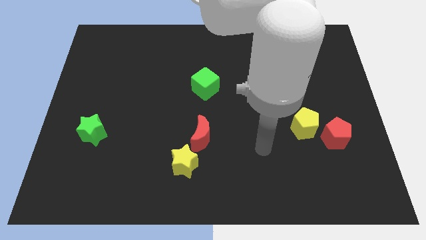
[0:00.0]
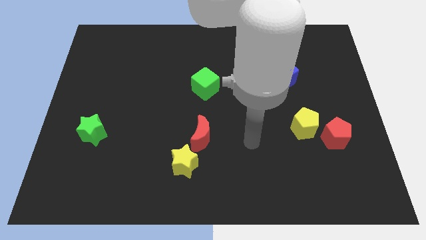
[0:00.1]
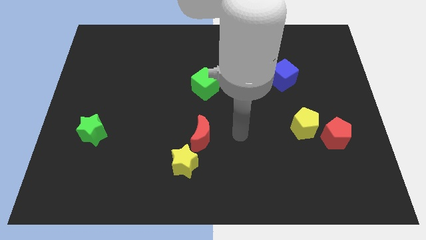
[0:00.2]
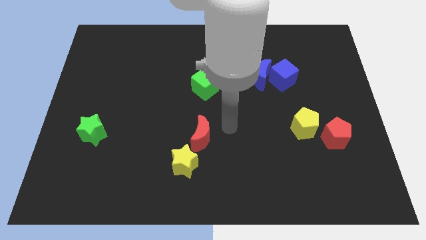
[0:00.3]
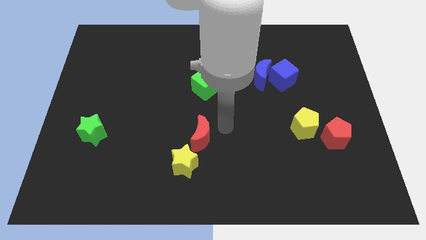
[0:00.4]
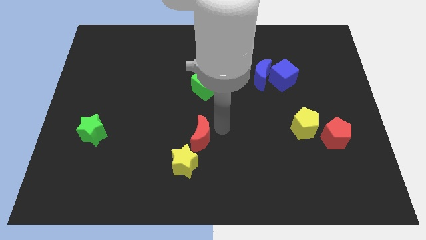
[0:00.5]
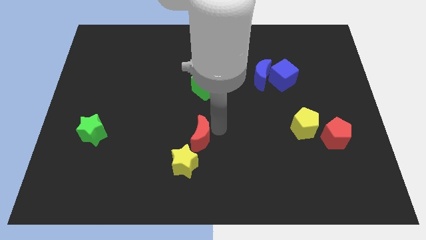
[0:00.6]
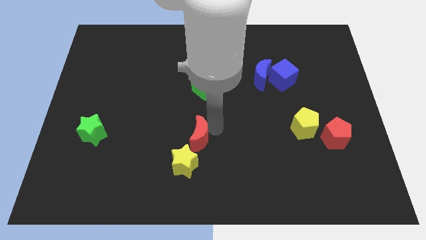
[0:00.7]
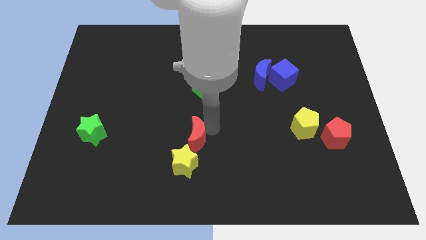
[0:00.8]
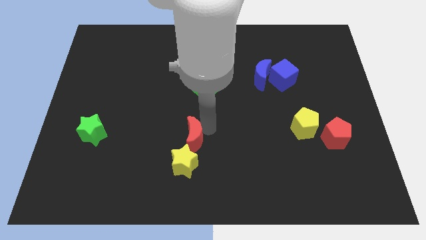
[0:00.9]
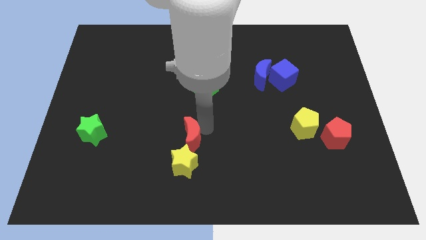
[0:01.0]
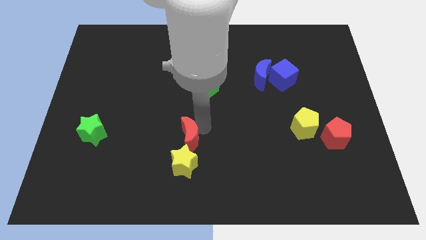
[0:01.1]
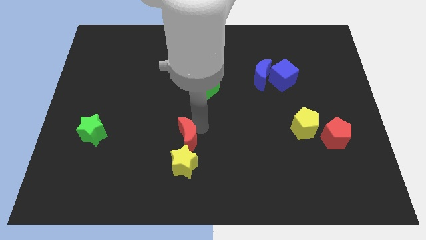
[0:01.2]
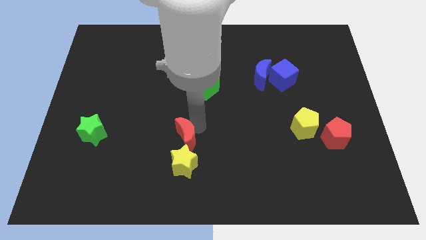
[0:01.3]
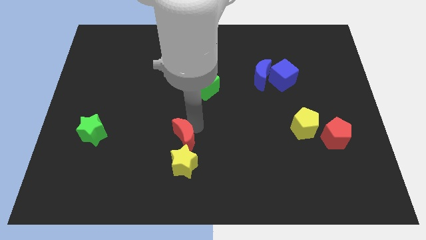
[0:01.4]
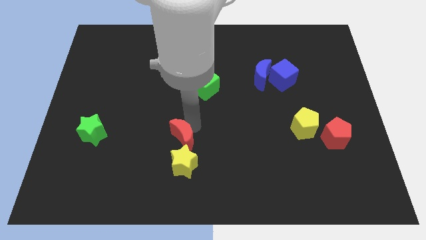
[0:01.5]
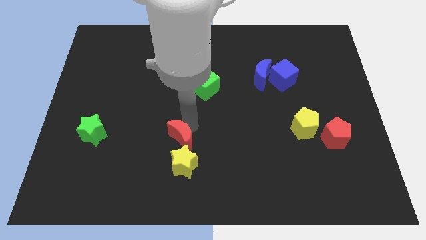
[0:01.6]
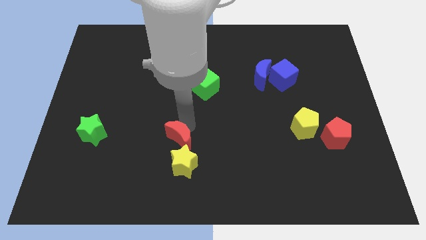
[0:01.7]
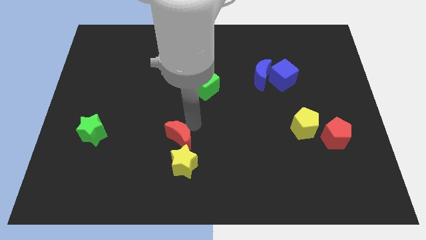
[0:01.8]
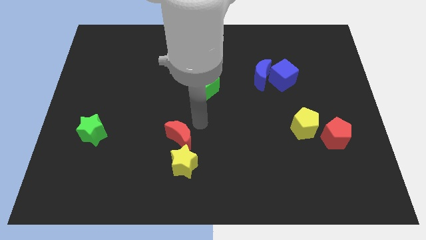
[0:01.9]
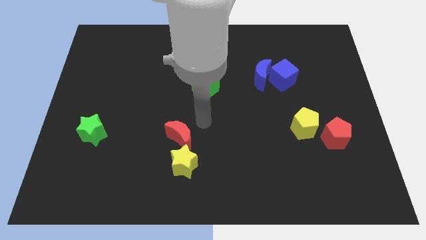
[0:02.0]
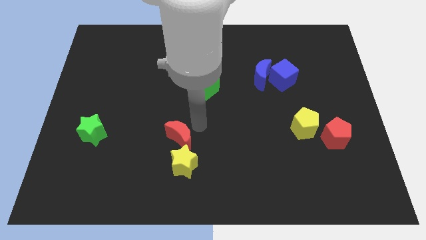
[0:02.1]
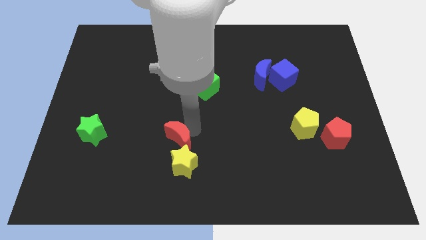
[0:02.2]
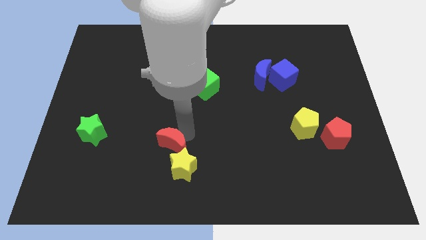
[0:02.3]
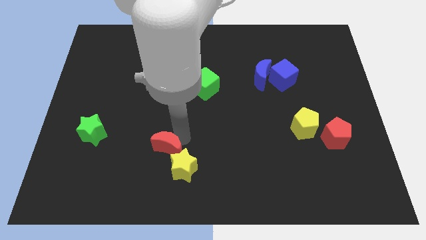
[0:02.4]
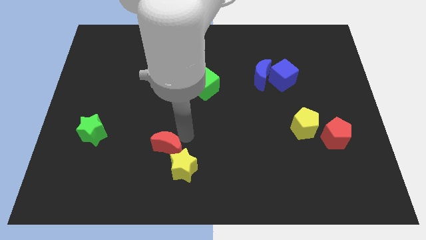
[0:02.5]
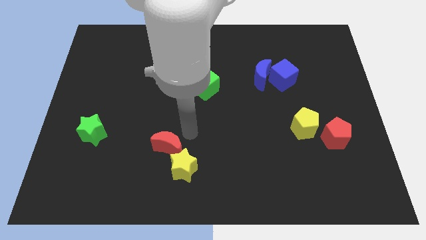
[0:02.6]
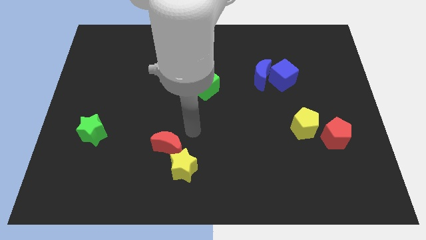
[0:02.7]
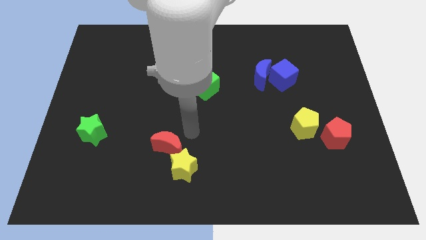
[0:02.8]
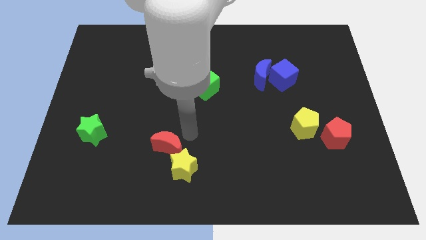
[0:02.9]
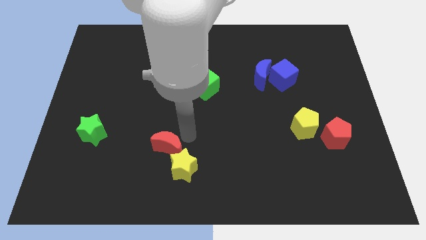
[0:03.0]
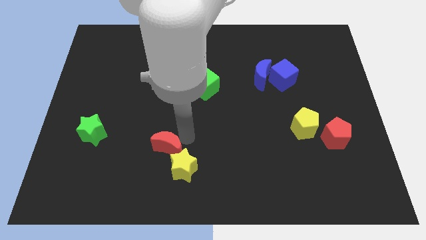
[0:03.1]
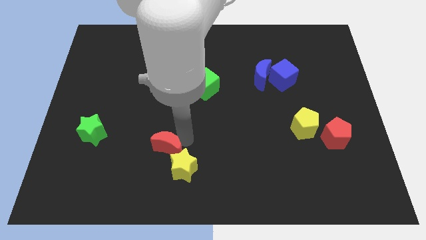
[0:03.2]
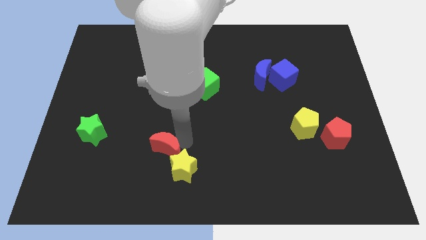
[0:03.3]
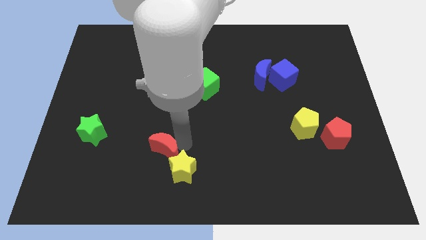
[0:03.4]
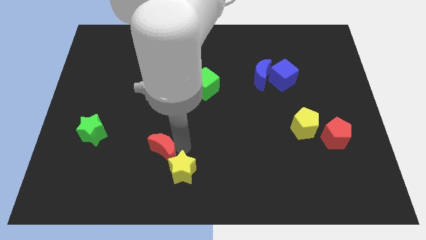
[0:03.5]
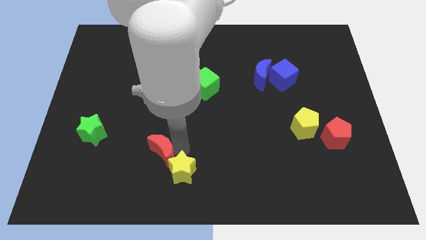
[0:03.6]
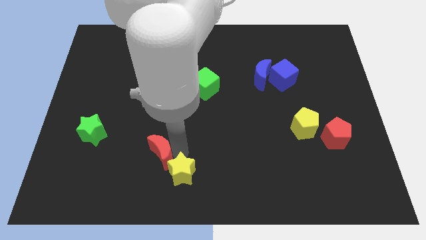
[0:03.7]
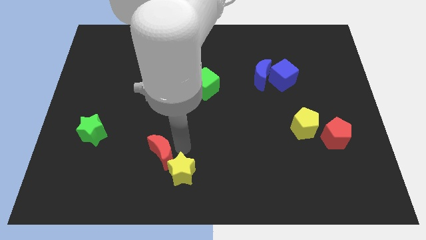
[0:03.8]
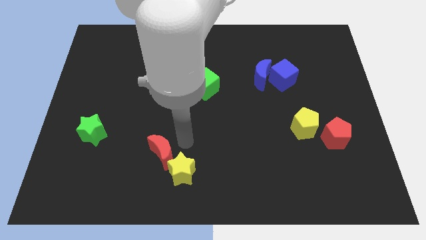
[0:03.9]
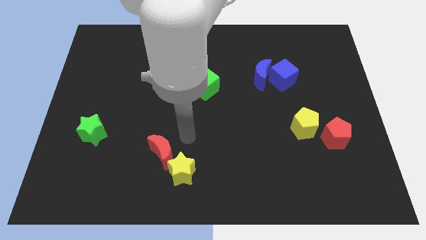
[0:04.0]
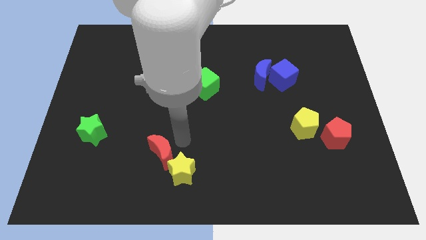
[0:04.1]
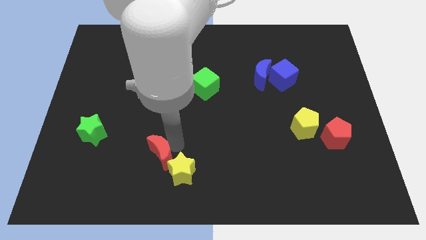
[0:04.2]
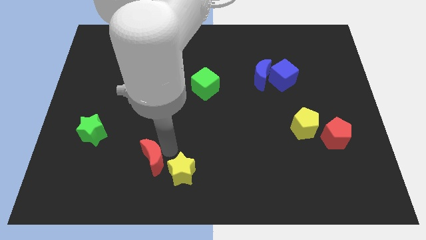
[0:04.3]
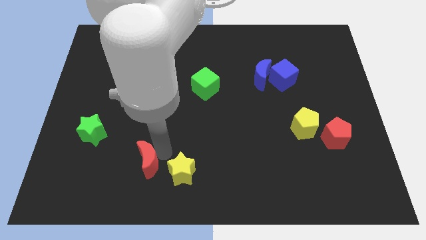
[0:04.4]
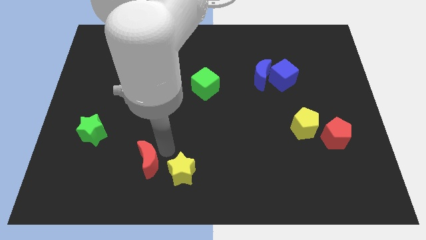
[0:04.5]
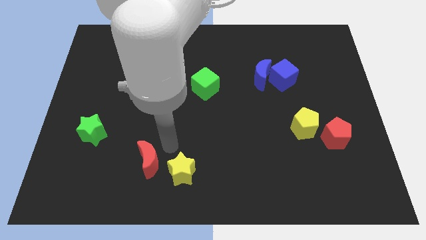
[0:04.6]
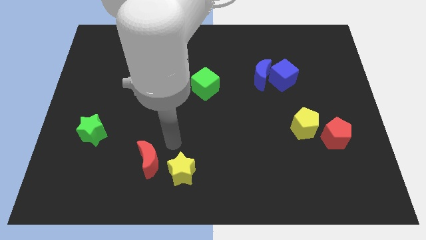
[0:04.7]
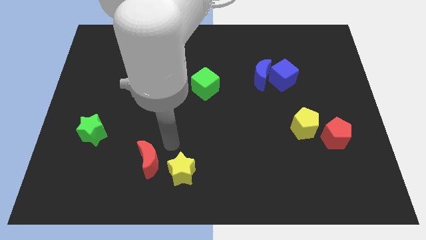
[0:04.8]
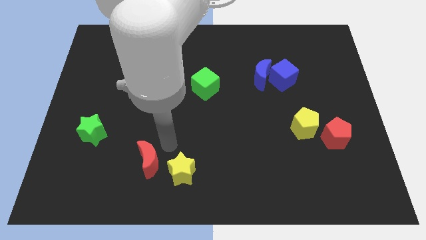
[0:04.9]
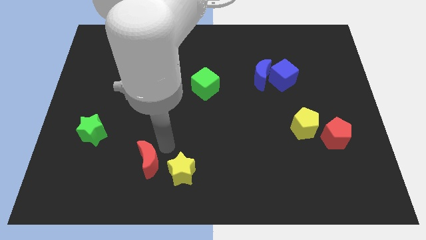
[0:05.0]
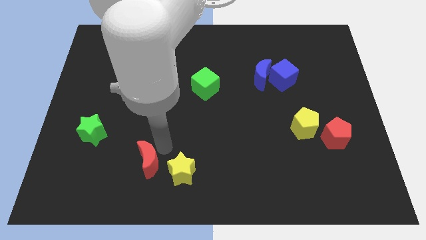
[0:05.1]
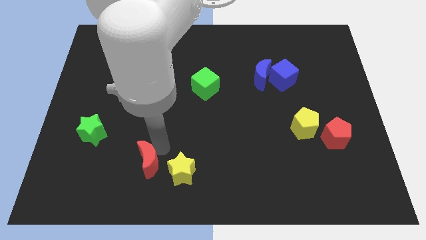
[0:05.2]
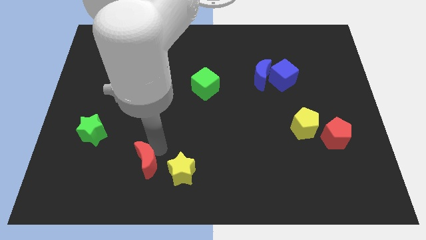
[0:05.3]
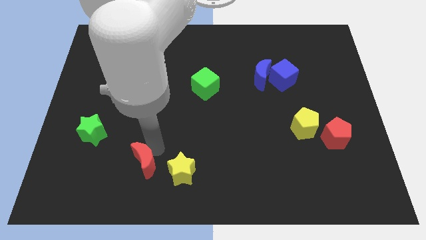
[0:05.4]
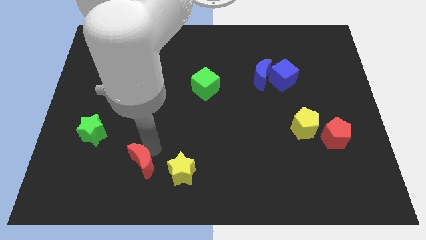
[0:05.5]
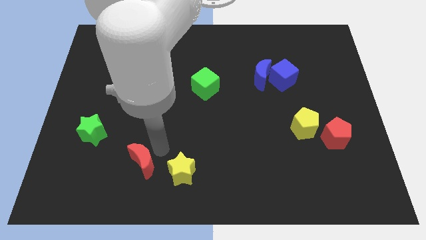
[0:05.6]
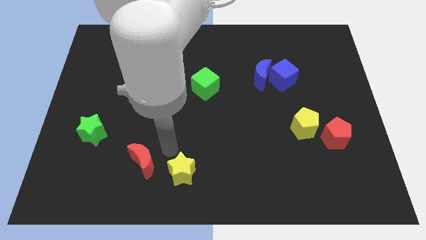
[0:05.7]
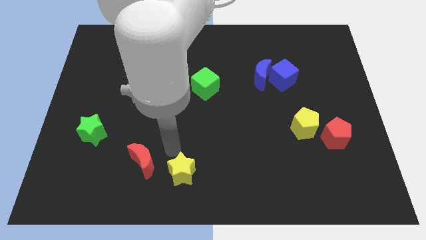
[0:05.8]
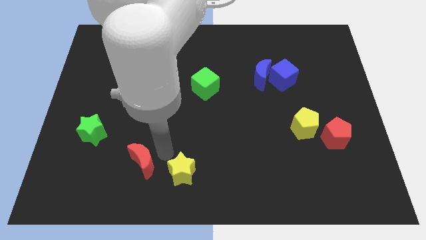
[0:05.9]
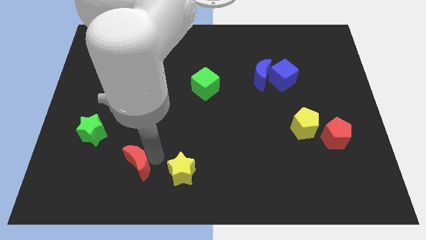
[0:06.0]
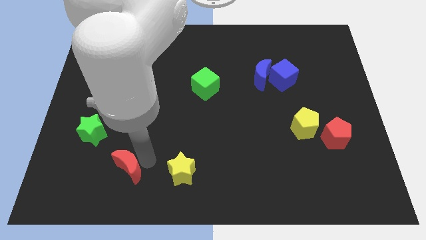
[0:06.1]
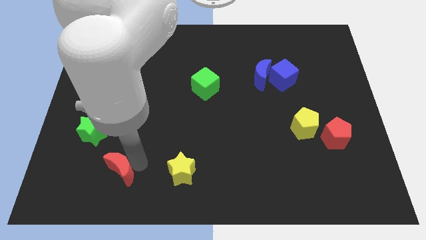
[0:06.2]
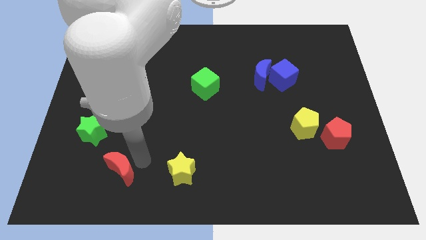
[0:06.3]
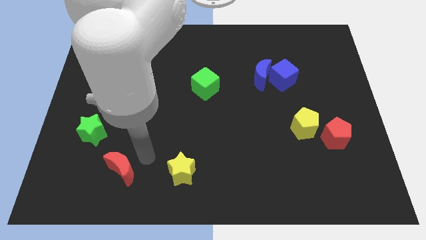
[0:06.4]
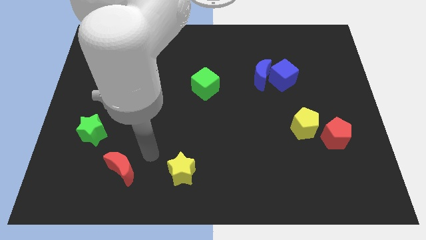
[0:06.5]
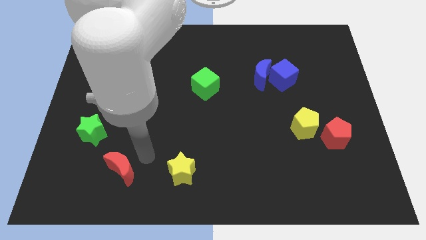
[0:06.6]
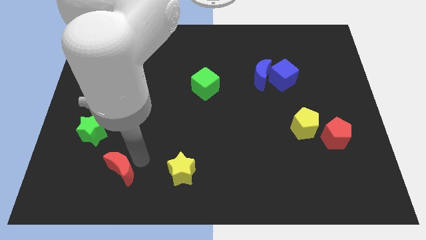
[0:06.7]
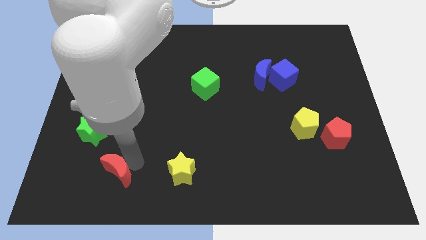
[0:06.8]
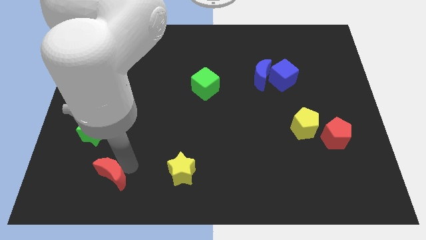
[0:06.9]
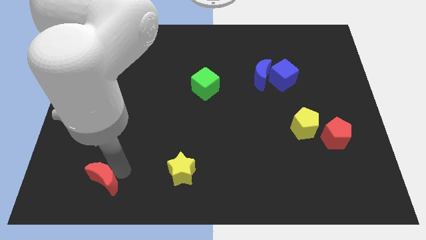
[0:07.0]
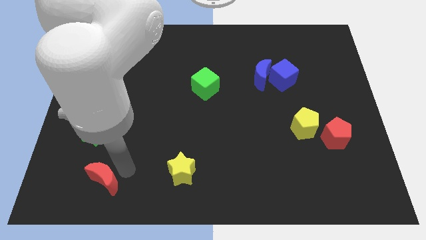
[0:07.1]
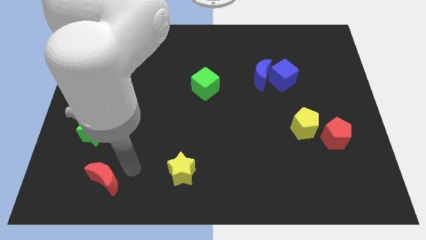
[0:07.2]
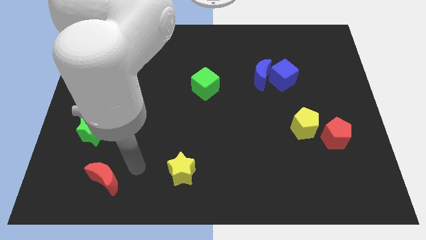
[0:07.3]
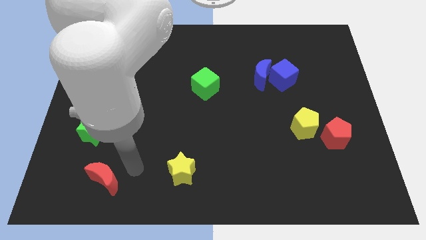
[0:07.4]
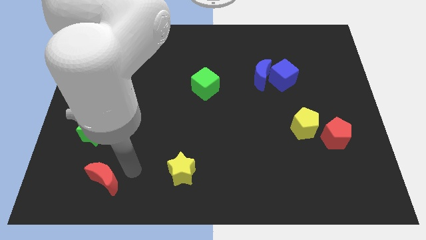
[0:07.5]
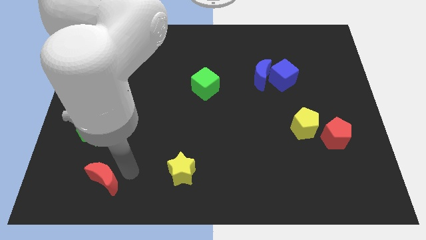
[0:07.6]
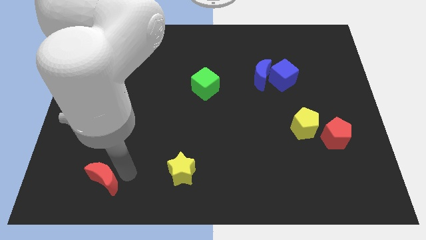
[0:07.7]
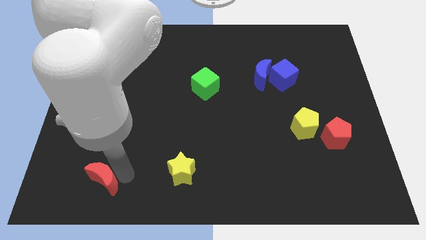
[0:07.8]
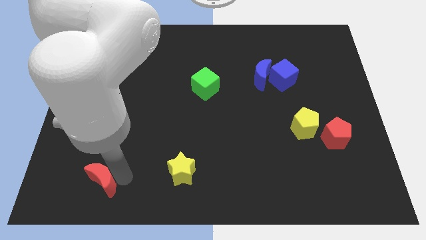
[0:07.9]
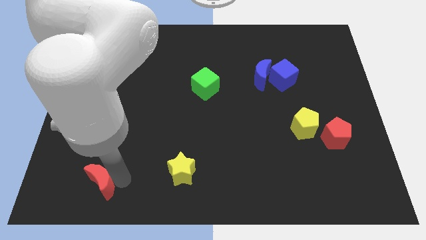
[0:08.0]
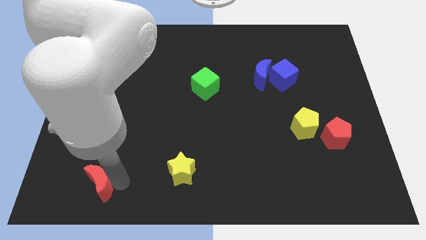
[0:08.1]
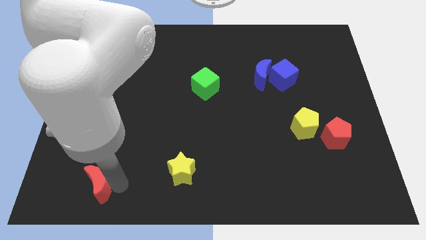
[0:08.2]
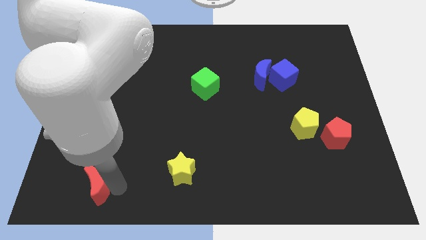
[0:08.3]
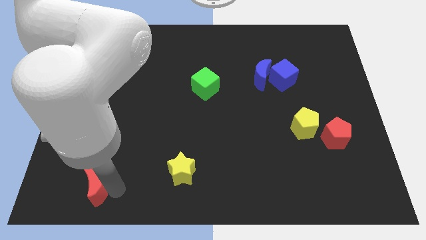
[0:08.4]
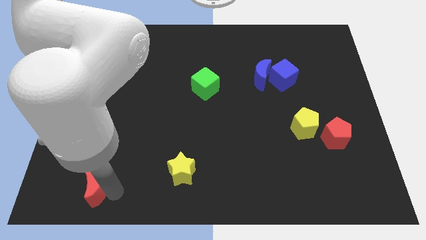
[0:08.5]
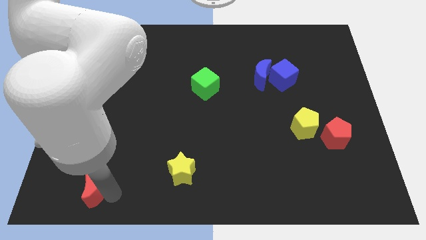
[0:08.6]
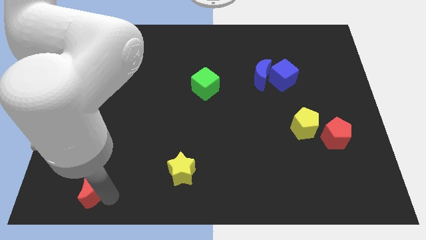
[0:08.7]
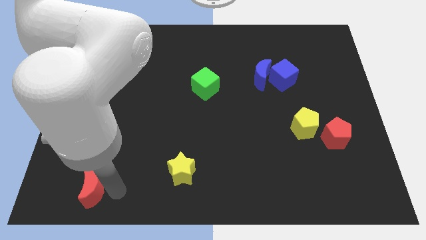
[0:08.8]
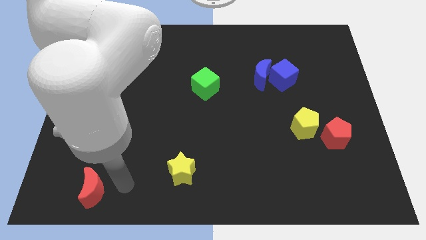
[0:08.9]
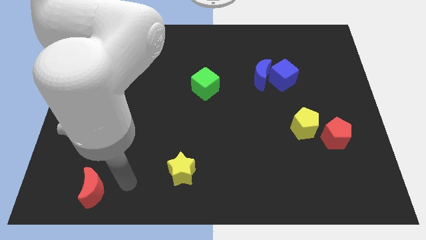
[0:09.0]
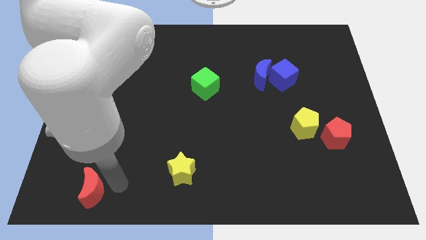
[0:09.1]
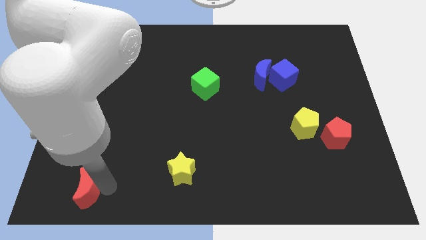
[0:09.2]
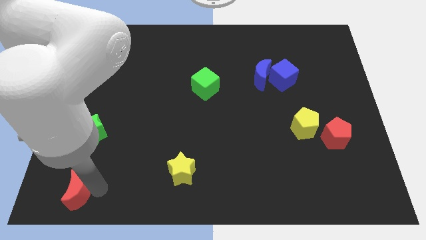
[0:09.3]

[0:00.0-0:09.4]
put the red moon to the bottom left of the board
